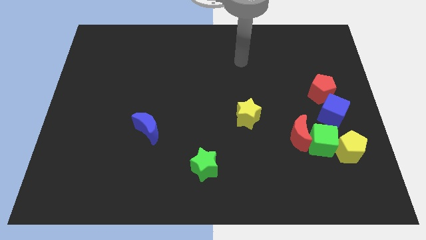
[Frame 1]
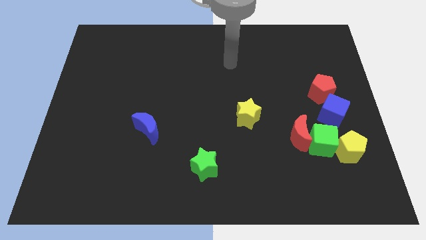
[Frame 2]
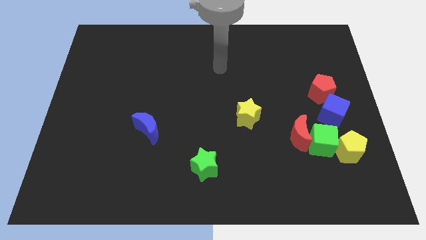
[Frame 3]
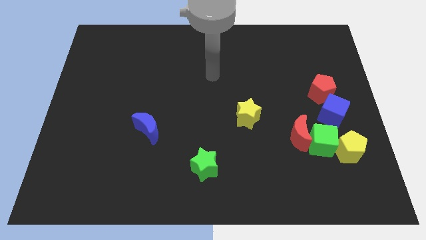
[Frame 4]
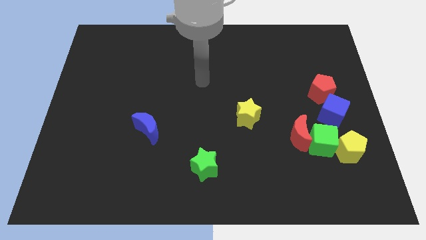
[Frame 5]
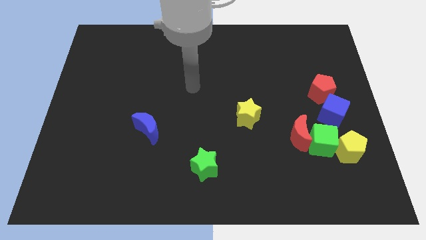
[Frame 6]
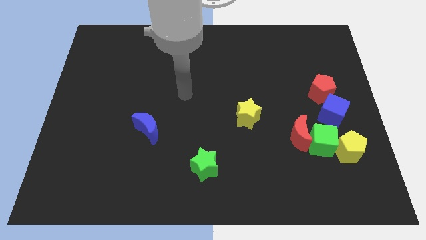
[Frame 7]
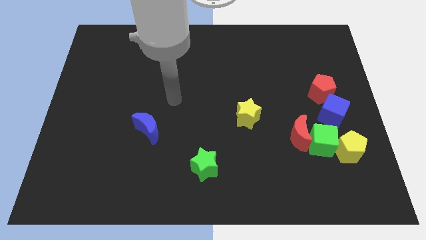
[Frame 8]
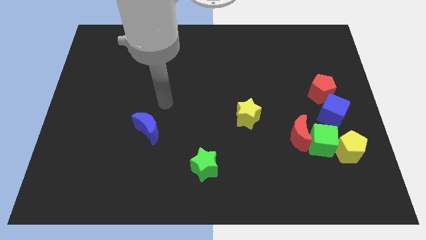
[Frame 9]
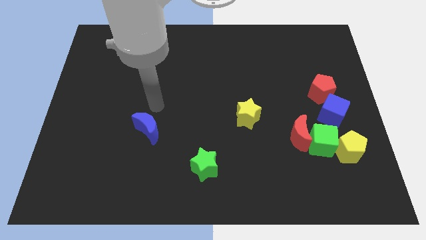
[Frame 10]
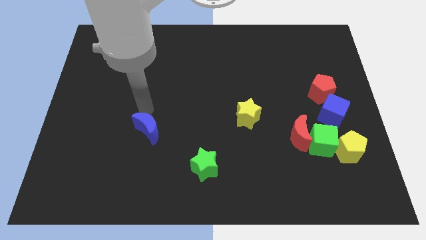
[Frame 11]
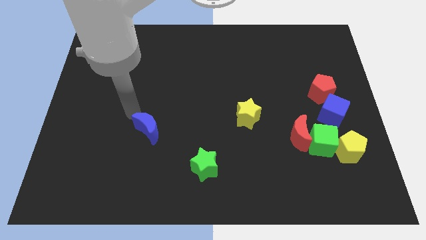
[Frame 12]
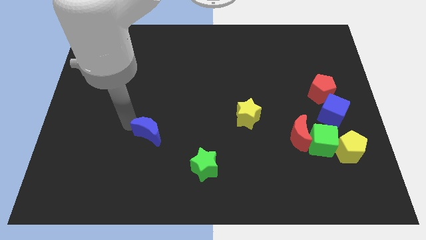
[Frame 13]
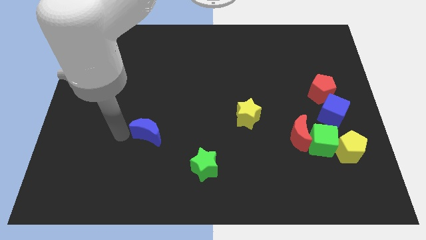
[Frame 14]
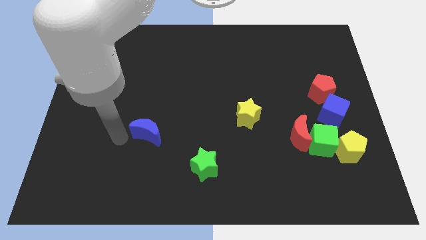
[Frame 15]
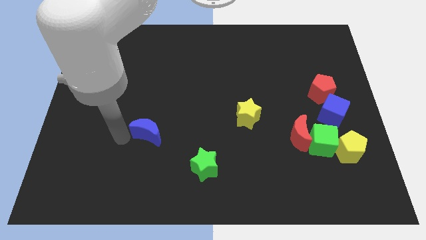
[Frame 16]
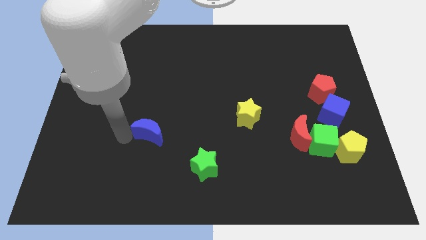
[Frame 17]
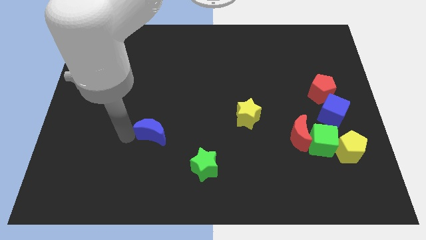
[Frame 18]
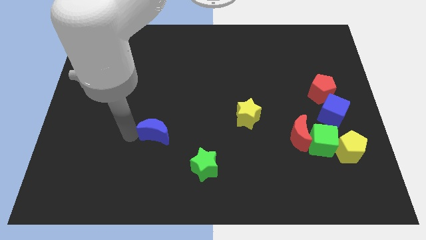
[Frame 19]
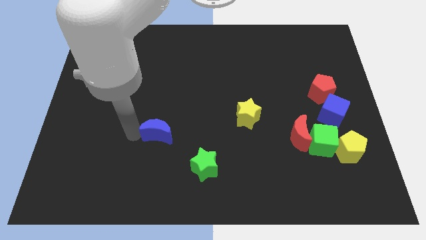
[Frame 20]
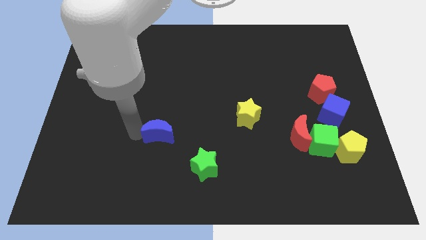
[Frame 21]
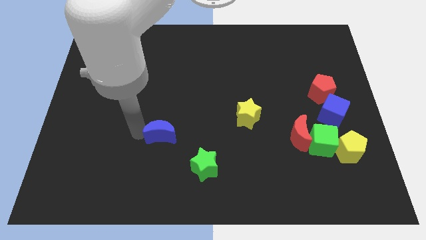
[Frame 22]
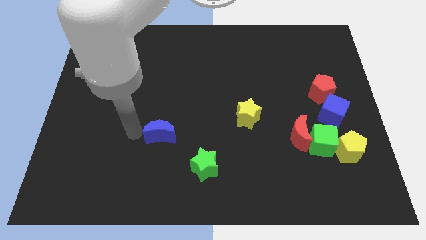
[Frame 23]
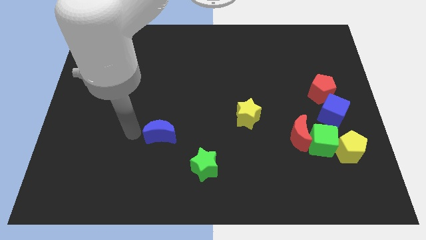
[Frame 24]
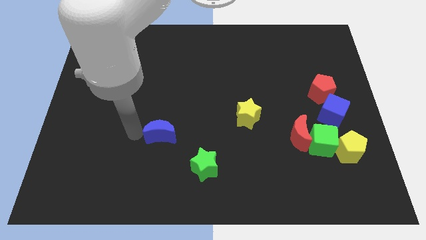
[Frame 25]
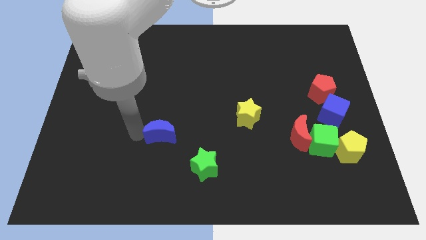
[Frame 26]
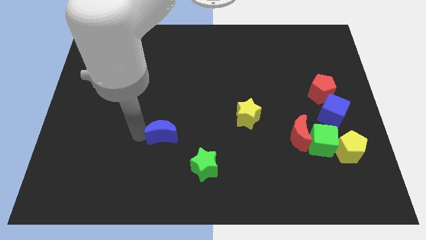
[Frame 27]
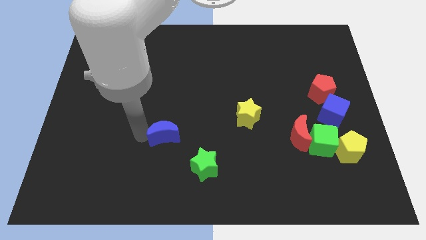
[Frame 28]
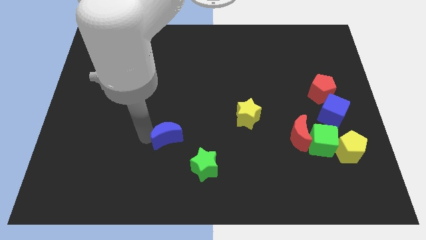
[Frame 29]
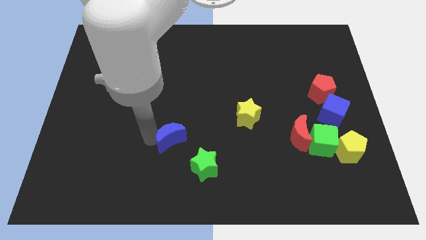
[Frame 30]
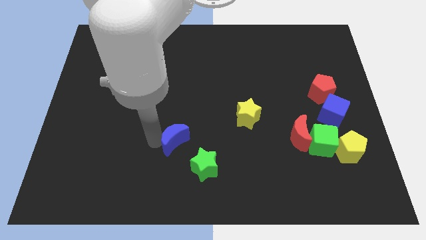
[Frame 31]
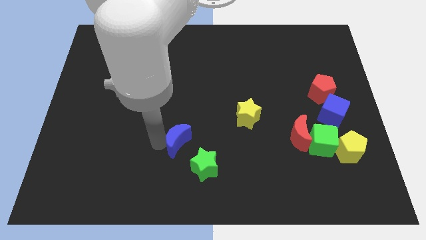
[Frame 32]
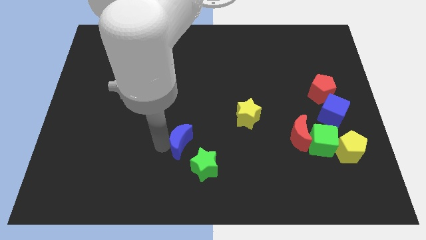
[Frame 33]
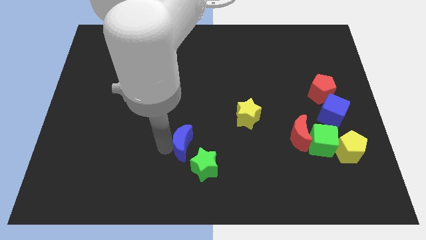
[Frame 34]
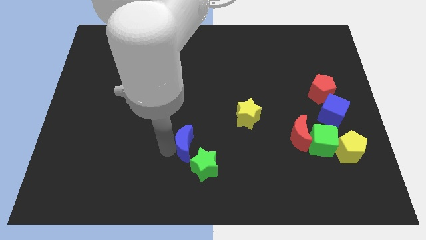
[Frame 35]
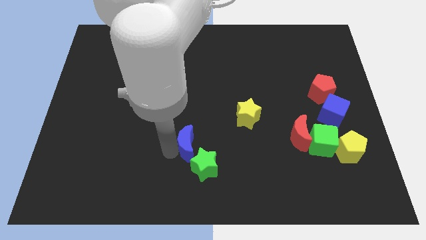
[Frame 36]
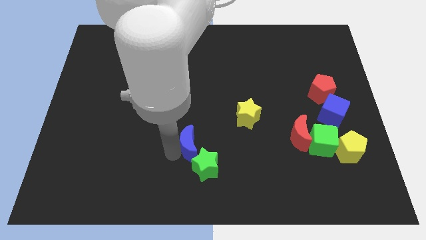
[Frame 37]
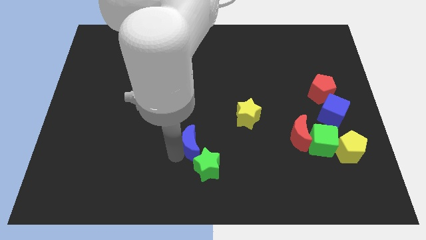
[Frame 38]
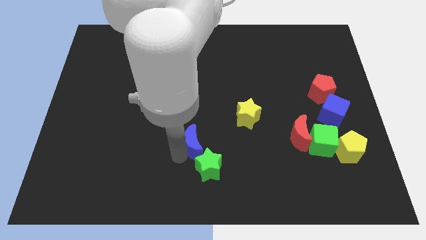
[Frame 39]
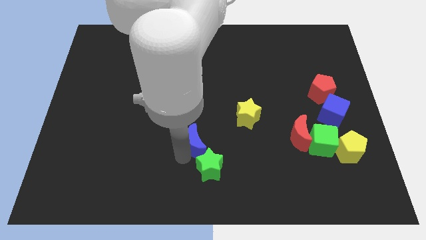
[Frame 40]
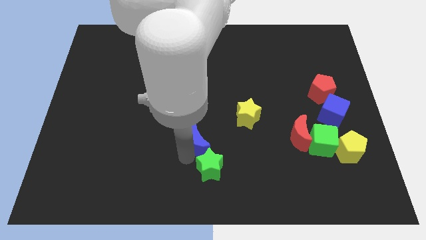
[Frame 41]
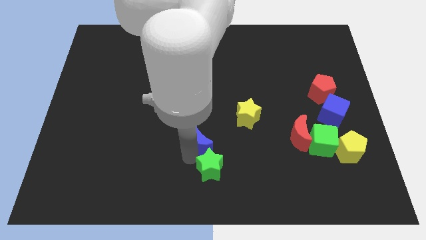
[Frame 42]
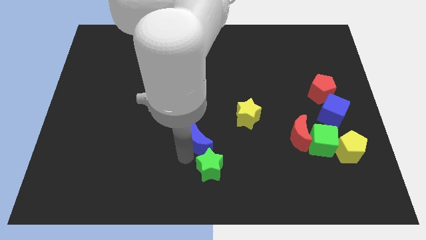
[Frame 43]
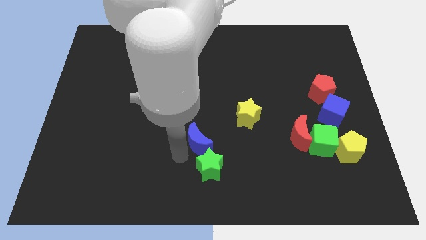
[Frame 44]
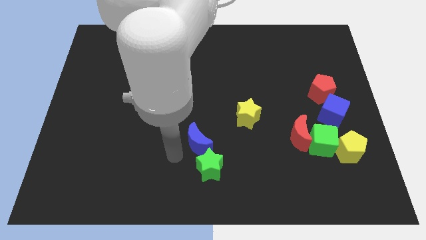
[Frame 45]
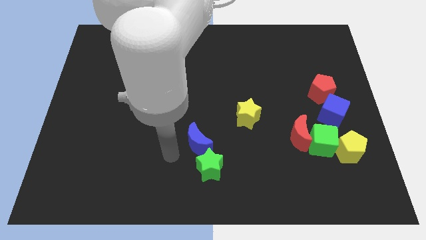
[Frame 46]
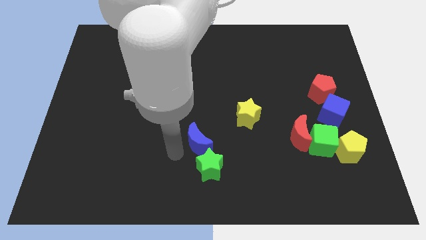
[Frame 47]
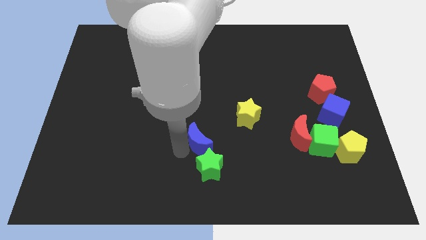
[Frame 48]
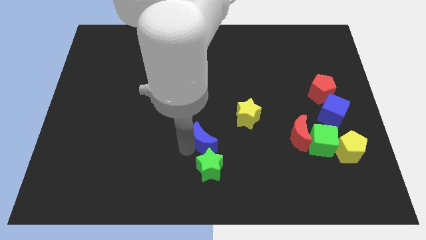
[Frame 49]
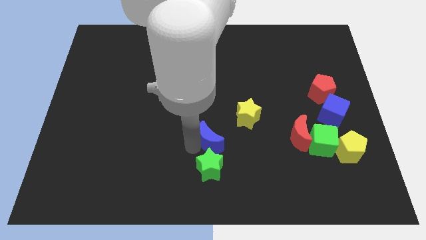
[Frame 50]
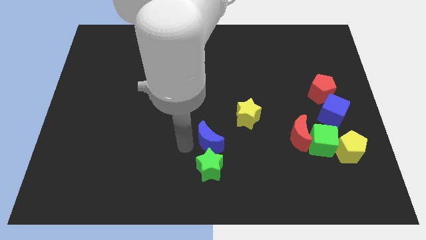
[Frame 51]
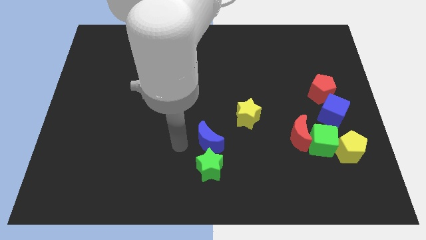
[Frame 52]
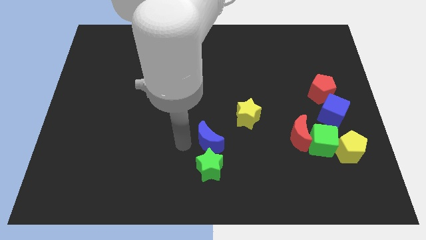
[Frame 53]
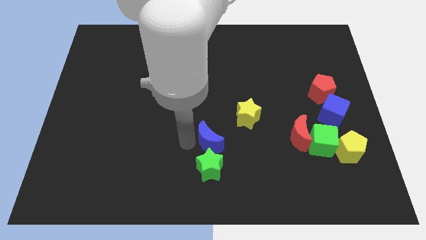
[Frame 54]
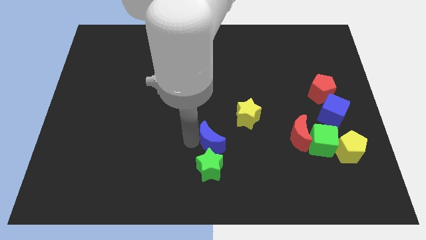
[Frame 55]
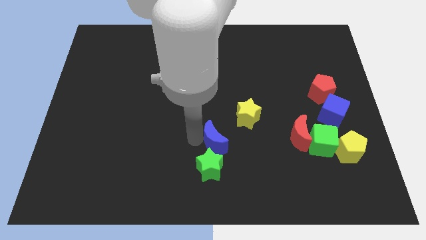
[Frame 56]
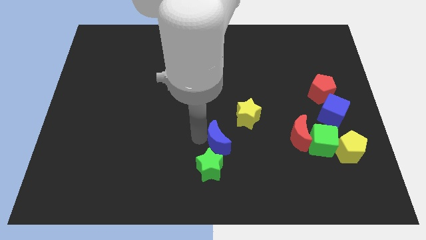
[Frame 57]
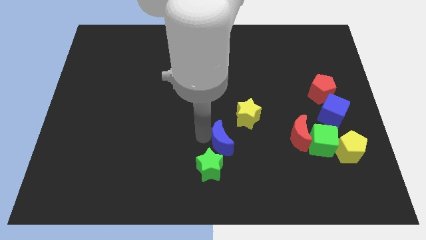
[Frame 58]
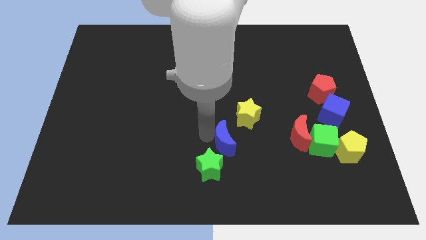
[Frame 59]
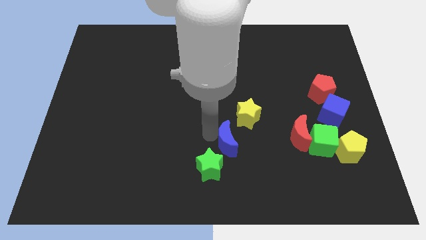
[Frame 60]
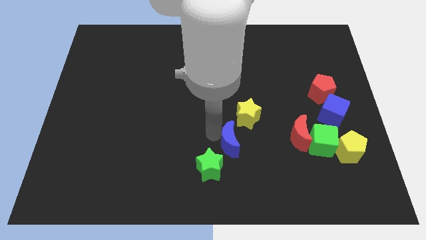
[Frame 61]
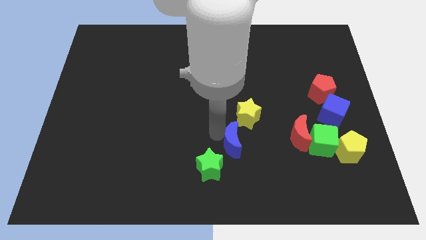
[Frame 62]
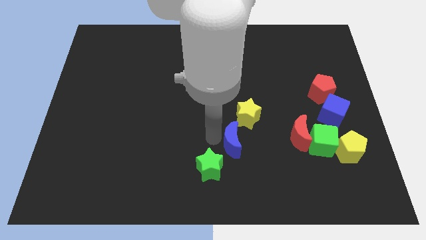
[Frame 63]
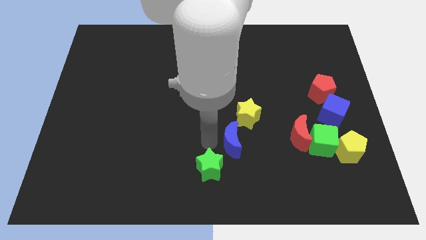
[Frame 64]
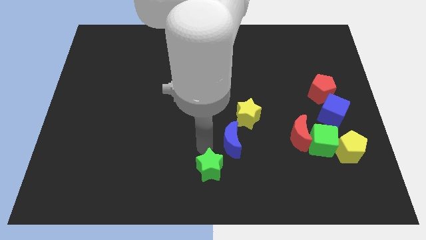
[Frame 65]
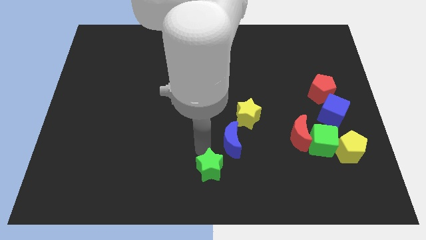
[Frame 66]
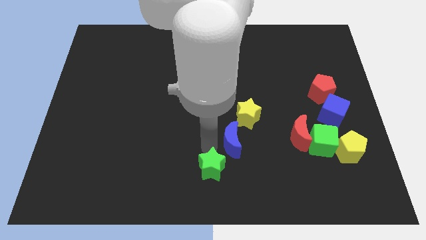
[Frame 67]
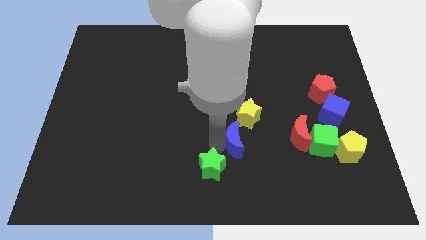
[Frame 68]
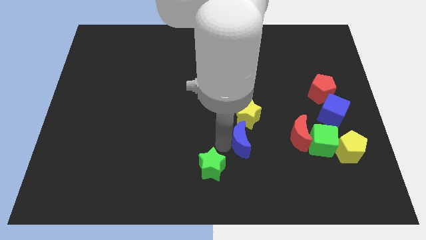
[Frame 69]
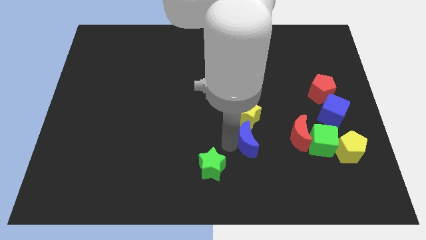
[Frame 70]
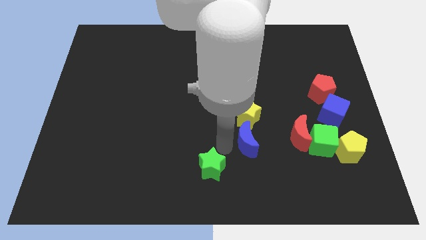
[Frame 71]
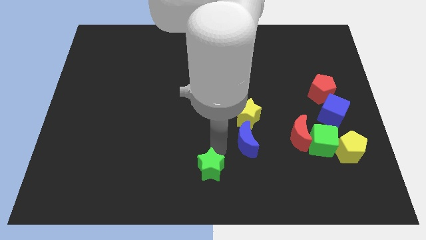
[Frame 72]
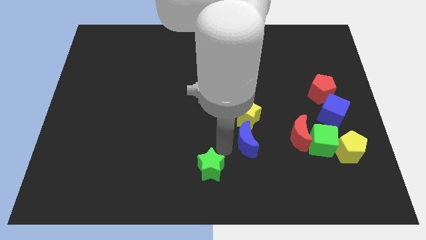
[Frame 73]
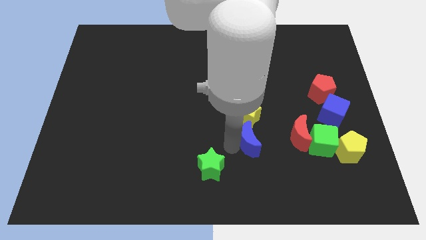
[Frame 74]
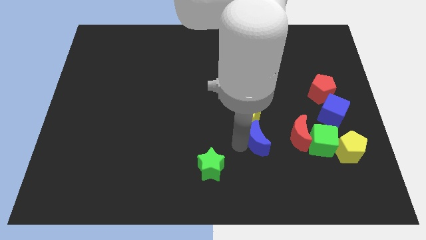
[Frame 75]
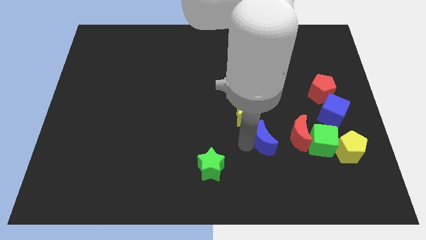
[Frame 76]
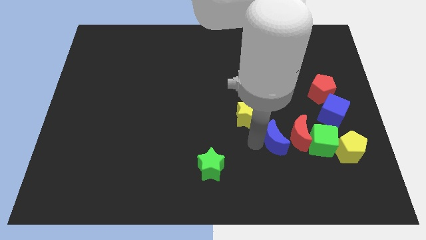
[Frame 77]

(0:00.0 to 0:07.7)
push the blue moon towards the red moon

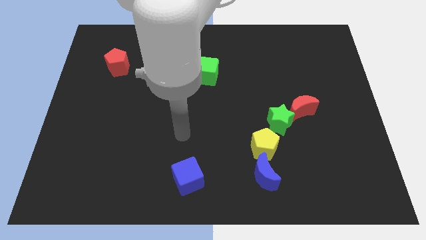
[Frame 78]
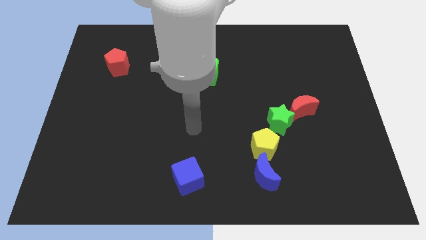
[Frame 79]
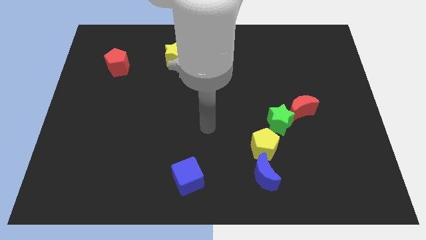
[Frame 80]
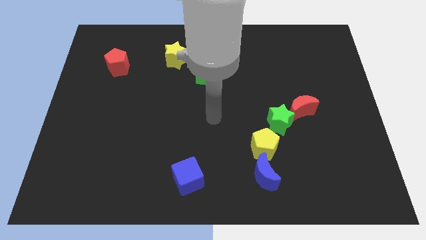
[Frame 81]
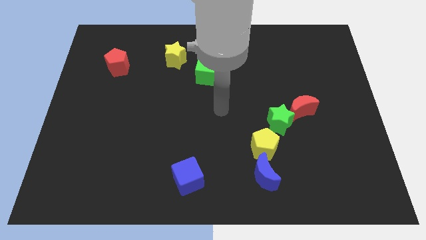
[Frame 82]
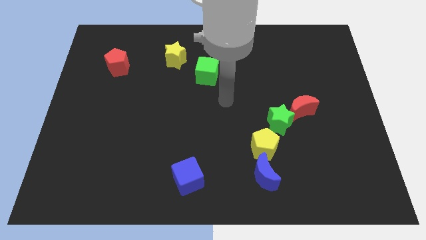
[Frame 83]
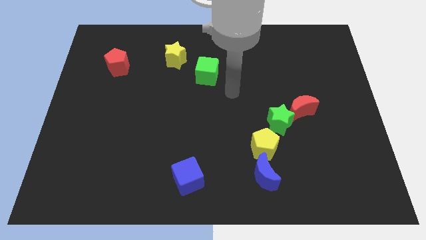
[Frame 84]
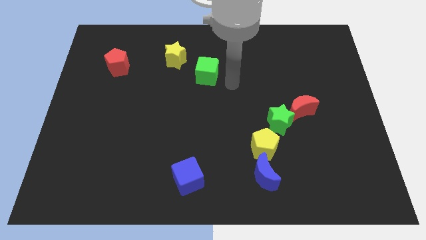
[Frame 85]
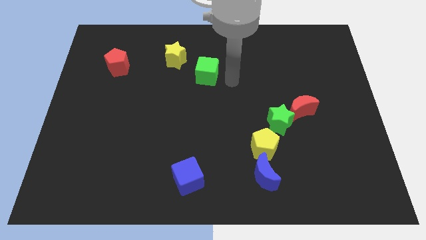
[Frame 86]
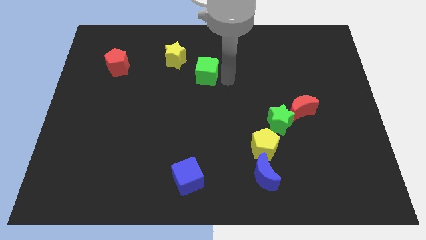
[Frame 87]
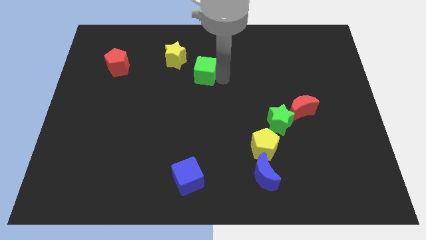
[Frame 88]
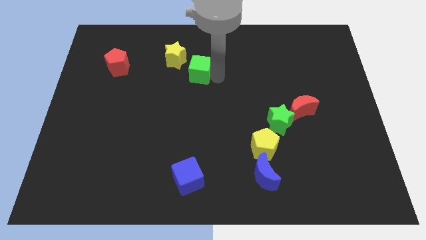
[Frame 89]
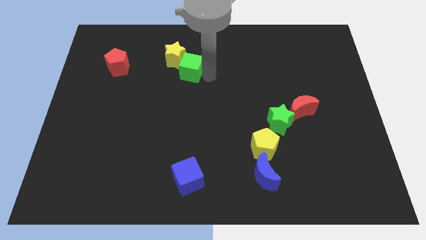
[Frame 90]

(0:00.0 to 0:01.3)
push the green cube close to the yellow star
